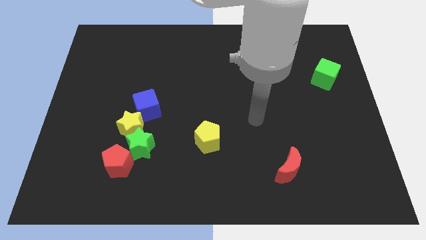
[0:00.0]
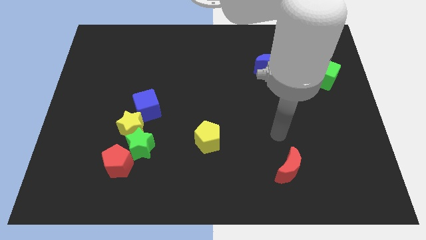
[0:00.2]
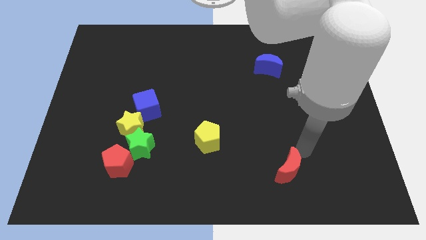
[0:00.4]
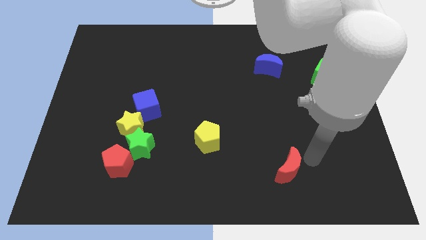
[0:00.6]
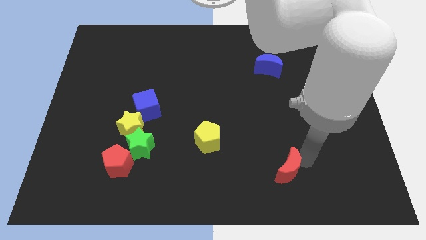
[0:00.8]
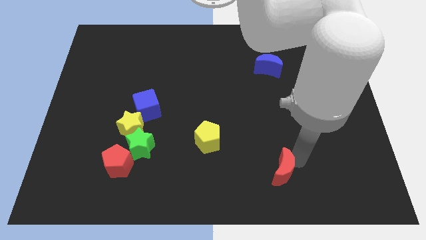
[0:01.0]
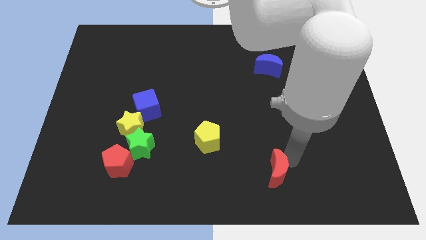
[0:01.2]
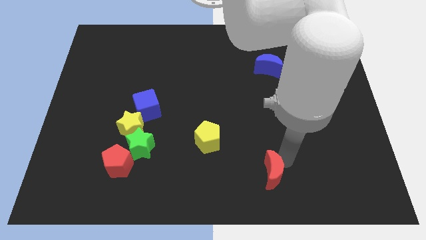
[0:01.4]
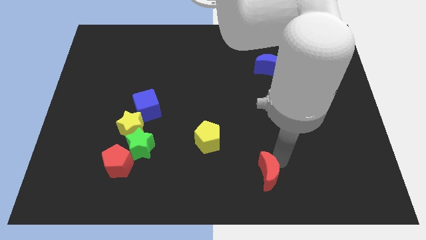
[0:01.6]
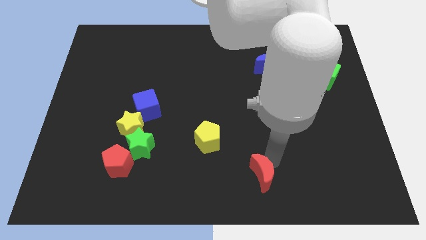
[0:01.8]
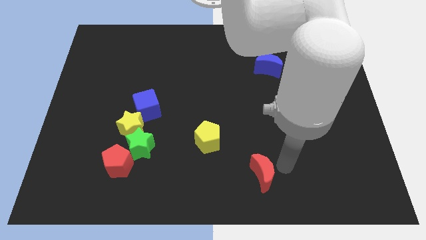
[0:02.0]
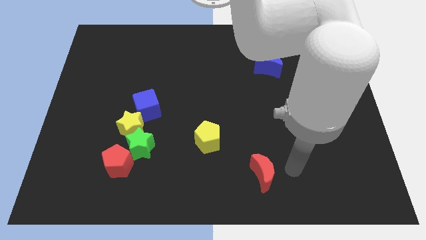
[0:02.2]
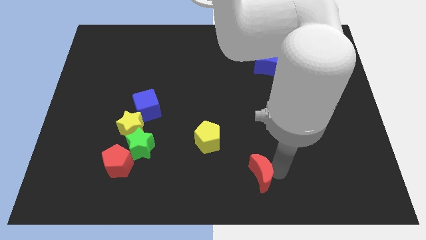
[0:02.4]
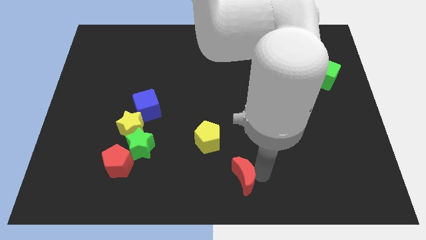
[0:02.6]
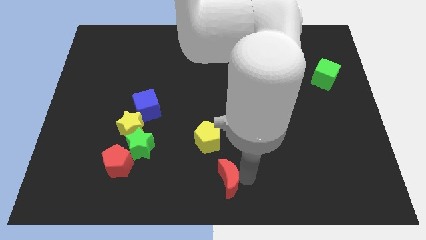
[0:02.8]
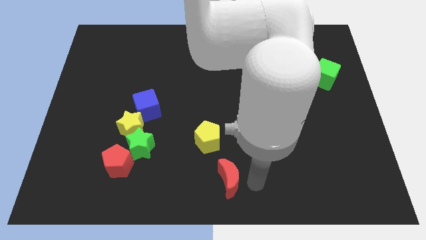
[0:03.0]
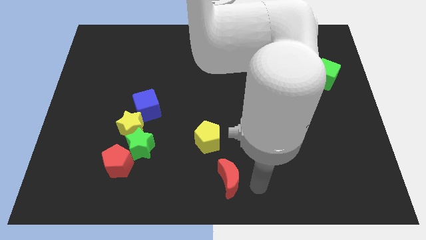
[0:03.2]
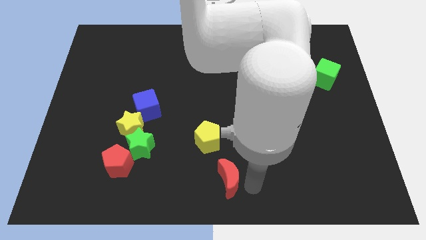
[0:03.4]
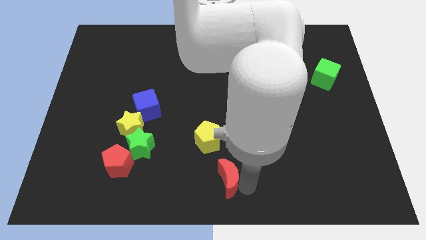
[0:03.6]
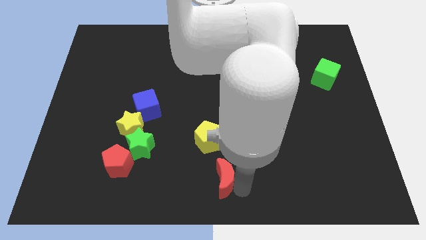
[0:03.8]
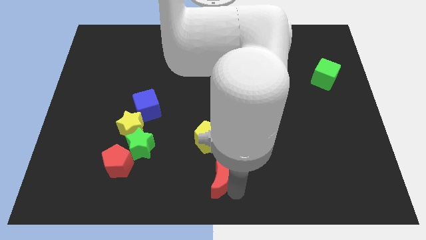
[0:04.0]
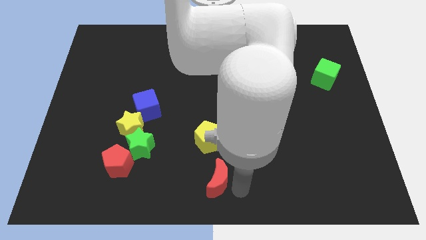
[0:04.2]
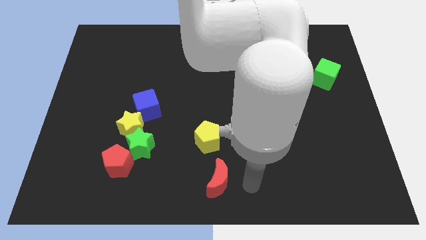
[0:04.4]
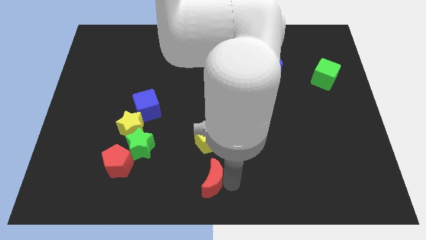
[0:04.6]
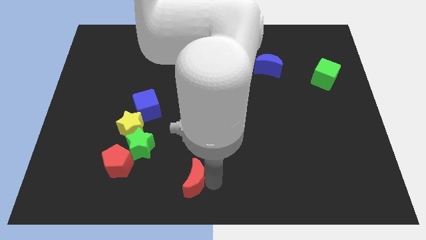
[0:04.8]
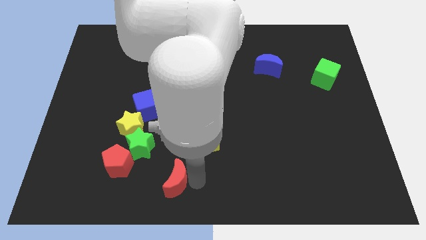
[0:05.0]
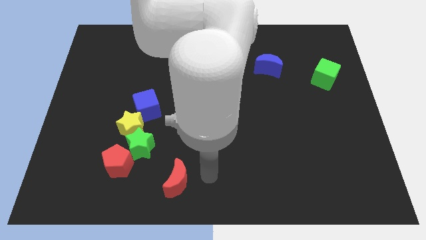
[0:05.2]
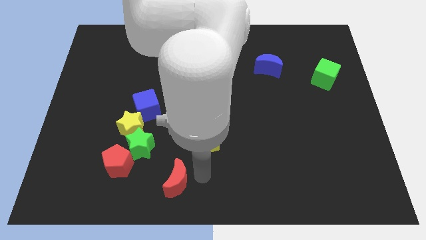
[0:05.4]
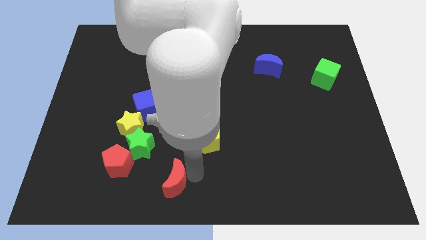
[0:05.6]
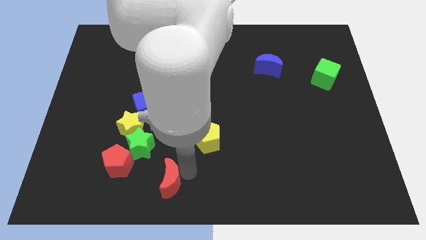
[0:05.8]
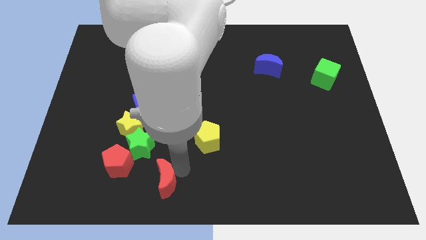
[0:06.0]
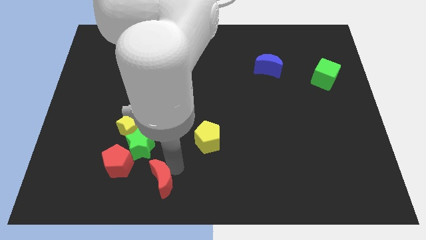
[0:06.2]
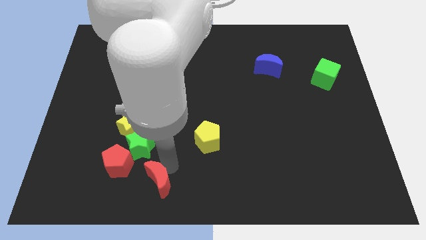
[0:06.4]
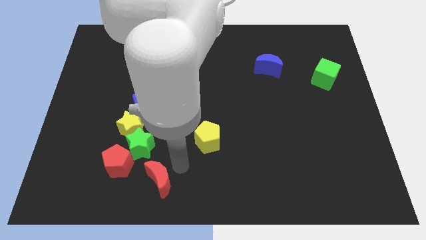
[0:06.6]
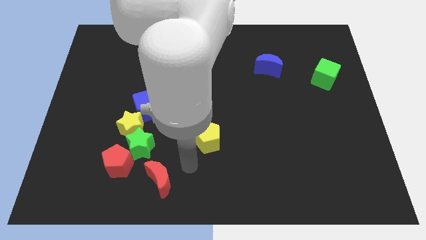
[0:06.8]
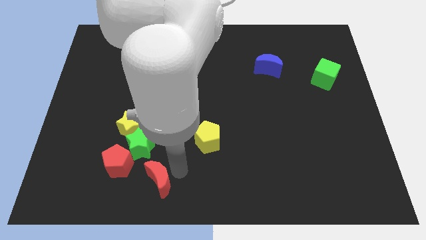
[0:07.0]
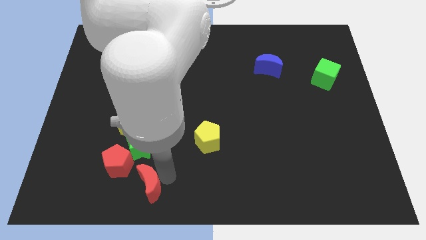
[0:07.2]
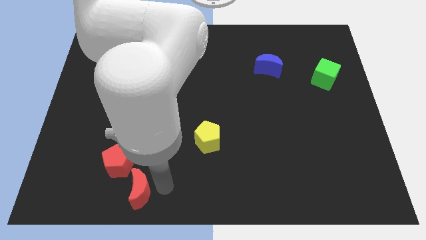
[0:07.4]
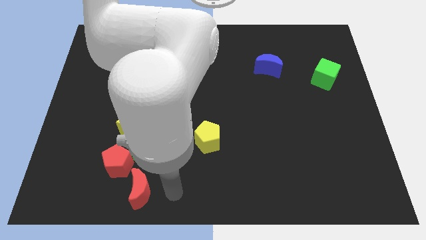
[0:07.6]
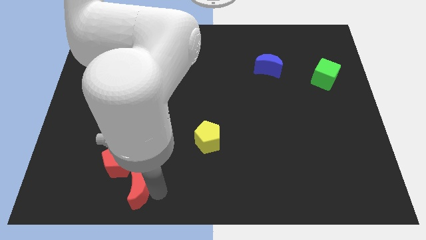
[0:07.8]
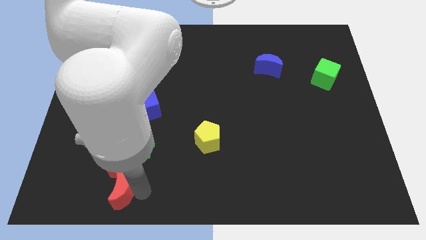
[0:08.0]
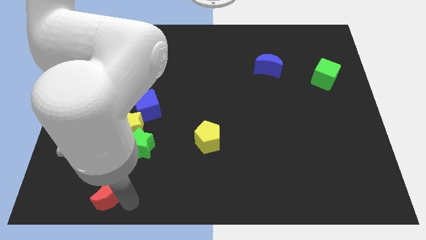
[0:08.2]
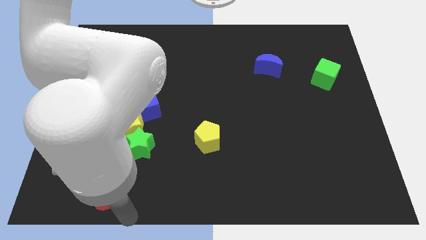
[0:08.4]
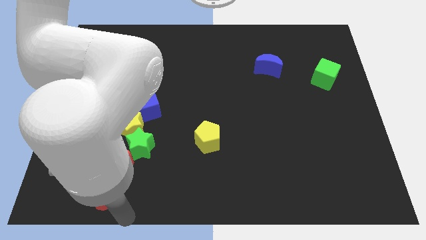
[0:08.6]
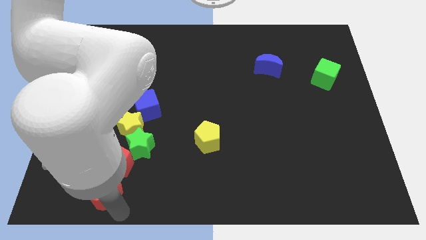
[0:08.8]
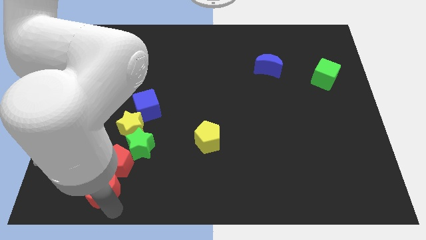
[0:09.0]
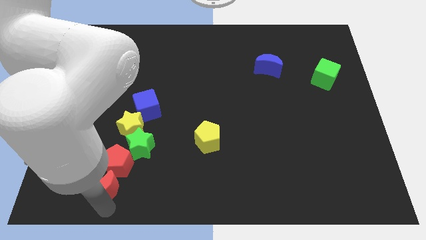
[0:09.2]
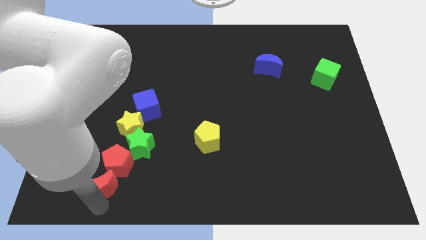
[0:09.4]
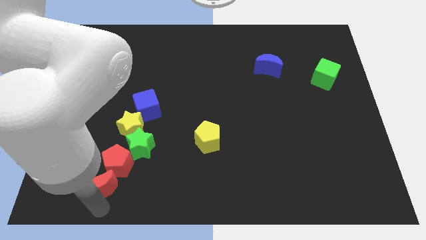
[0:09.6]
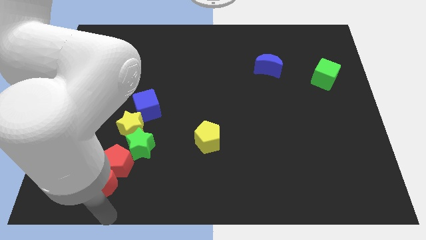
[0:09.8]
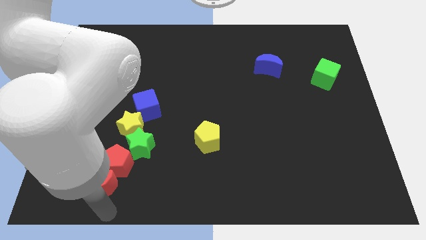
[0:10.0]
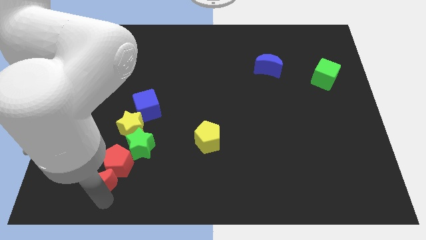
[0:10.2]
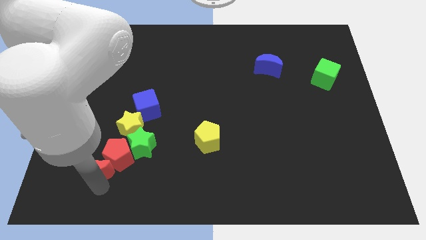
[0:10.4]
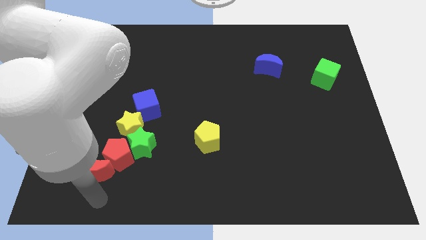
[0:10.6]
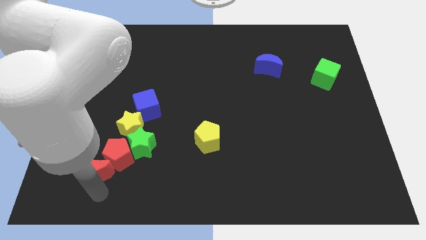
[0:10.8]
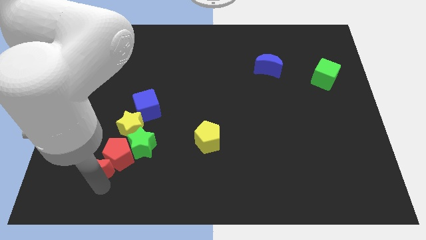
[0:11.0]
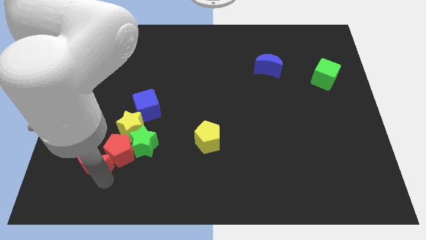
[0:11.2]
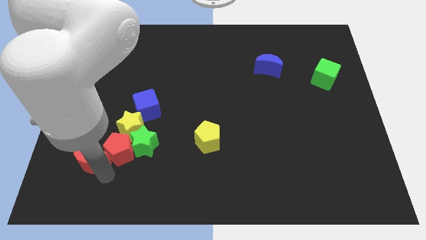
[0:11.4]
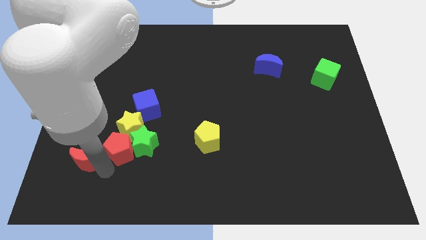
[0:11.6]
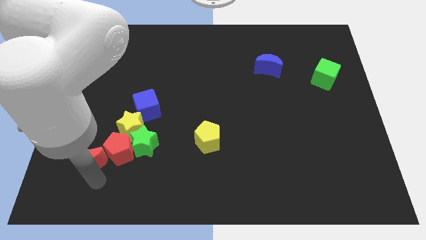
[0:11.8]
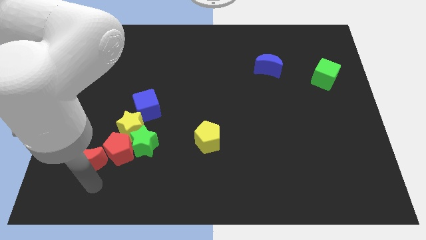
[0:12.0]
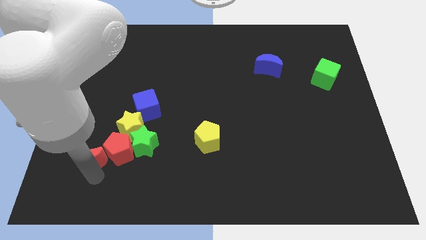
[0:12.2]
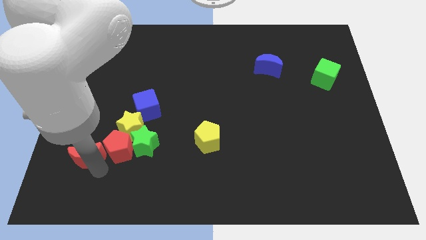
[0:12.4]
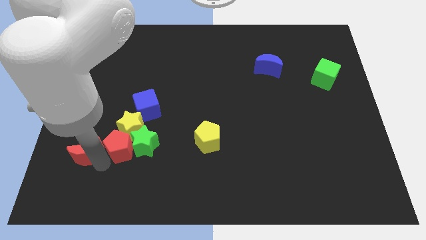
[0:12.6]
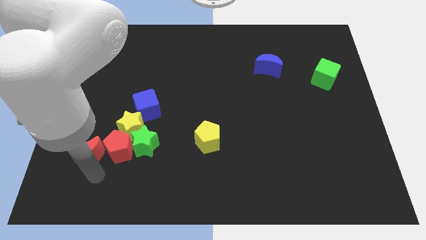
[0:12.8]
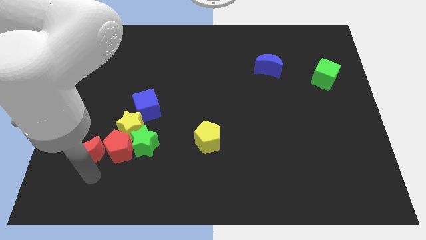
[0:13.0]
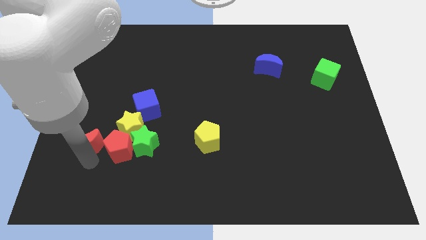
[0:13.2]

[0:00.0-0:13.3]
put the red moon just left of the yellow star

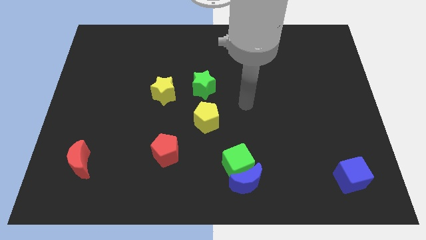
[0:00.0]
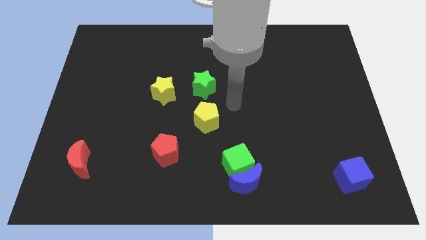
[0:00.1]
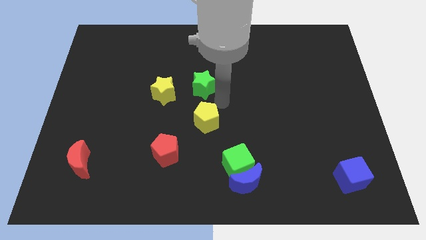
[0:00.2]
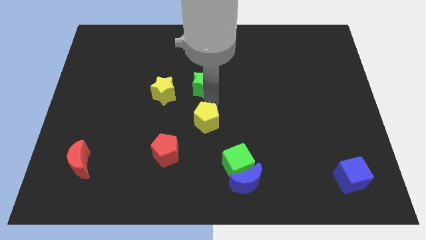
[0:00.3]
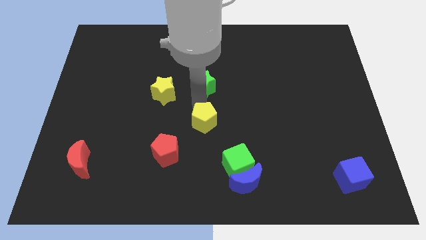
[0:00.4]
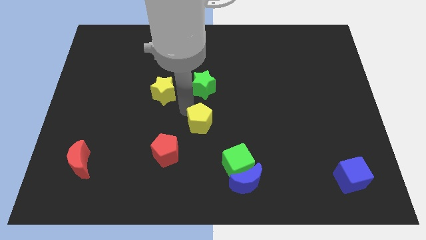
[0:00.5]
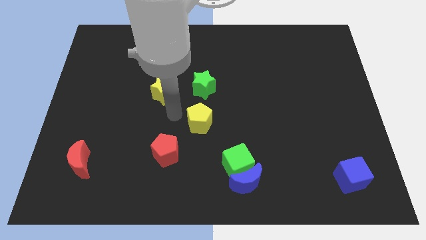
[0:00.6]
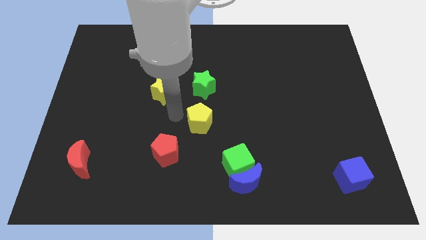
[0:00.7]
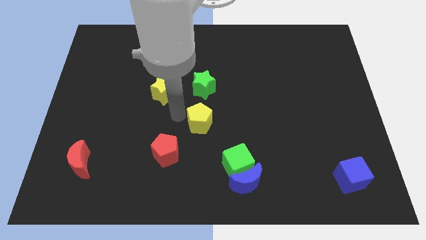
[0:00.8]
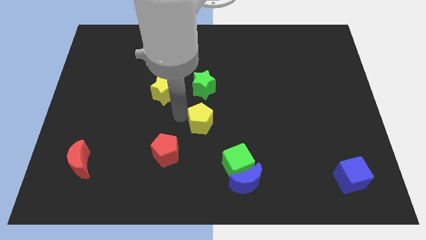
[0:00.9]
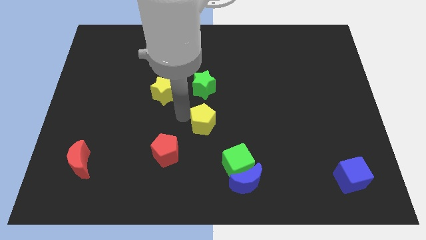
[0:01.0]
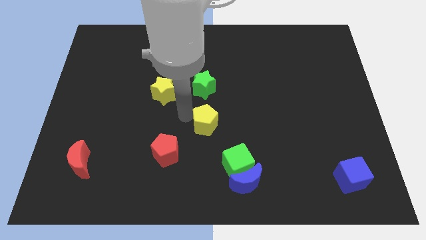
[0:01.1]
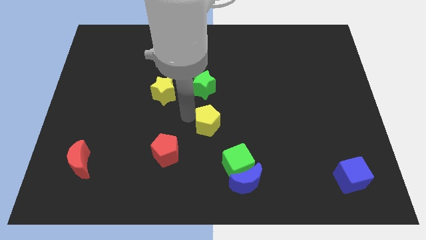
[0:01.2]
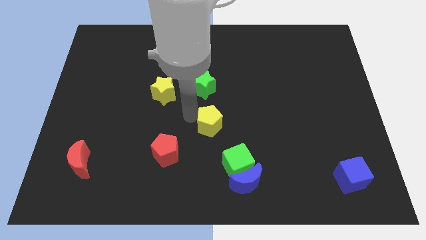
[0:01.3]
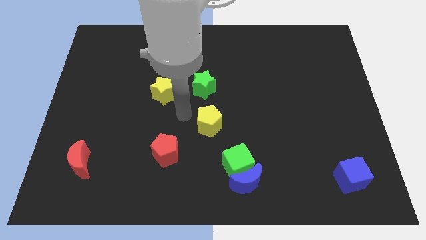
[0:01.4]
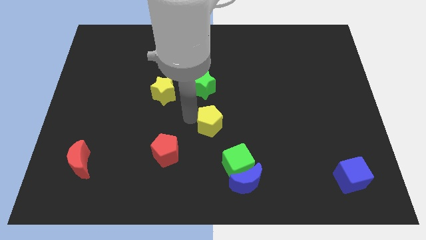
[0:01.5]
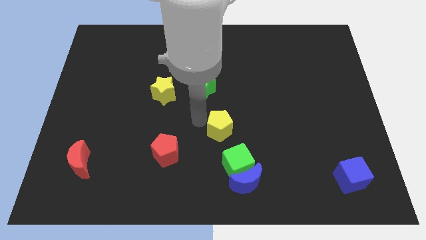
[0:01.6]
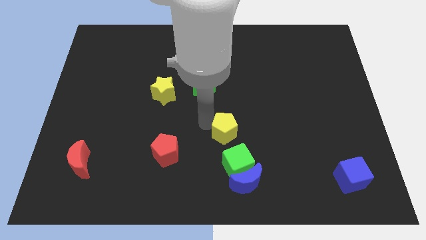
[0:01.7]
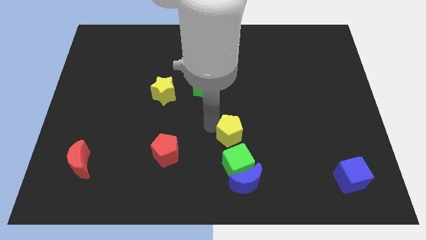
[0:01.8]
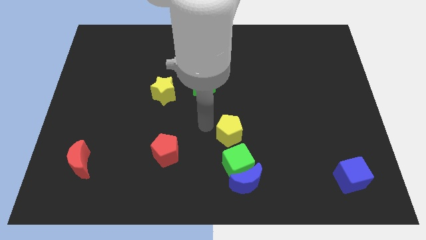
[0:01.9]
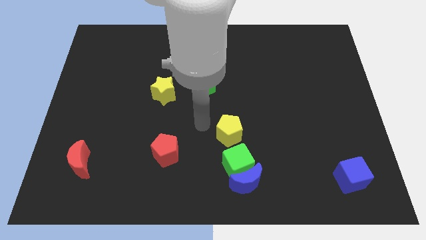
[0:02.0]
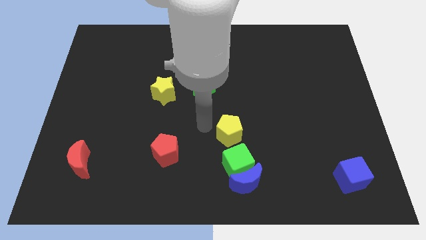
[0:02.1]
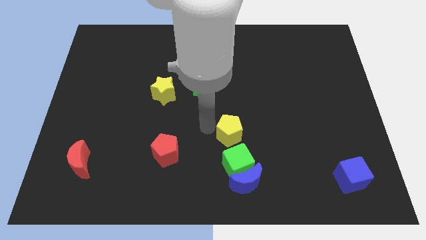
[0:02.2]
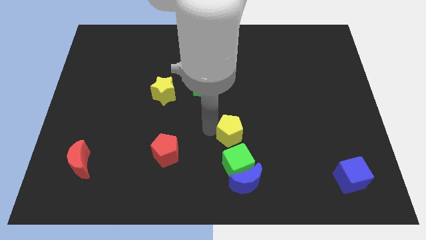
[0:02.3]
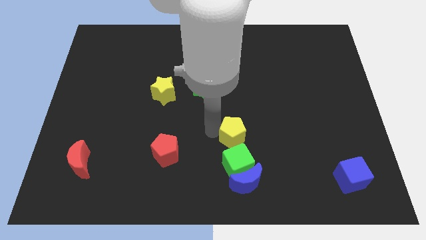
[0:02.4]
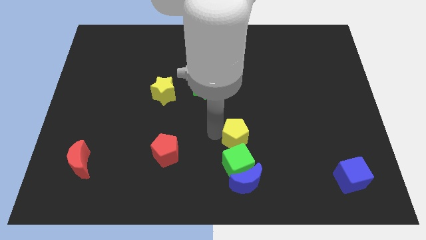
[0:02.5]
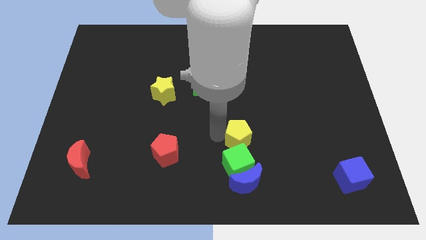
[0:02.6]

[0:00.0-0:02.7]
push the yellow pentagon to the top right of the green cube
